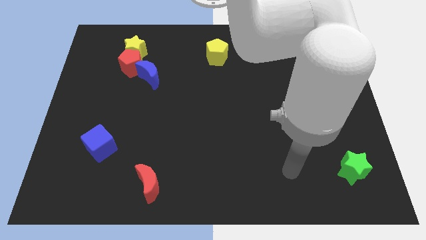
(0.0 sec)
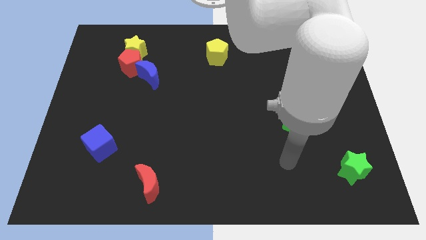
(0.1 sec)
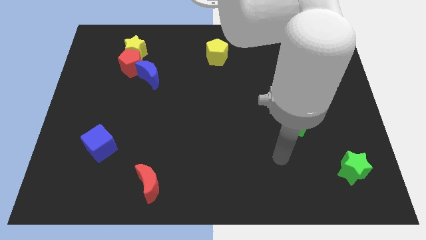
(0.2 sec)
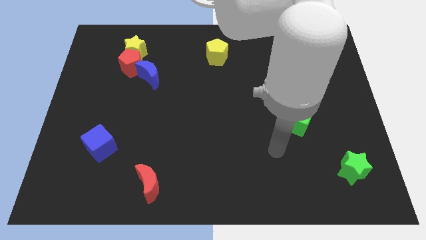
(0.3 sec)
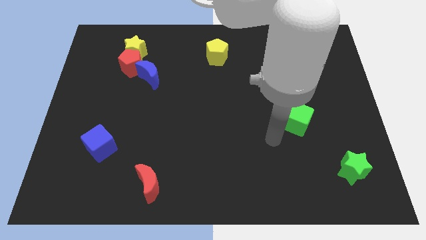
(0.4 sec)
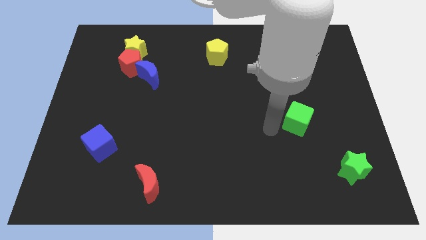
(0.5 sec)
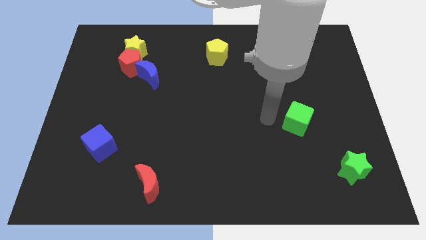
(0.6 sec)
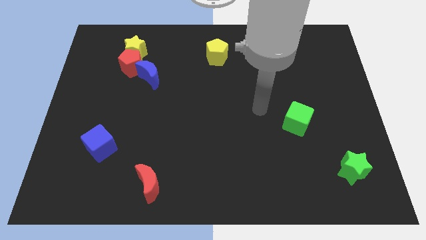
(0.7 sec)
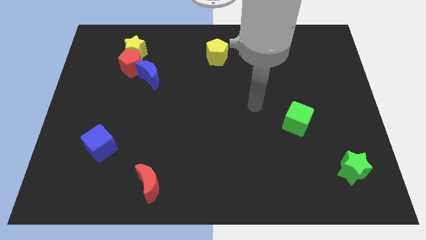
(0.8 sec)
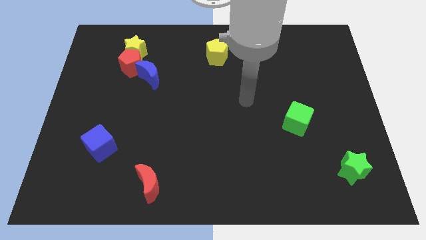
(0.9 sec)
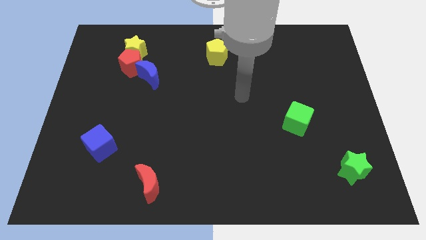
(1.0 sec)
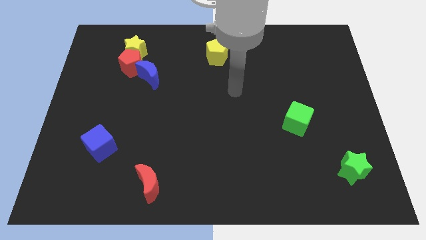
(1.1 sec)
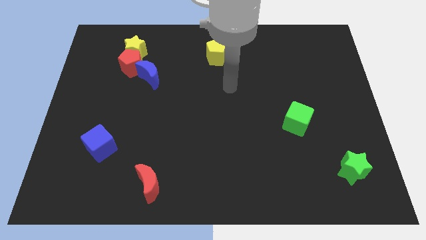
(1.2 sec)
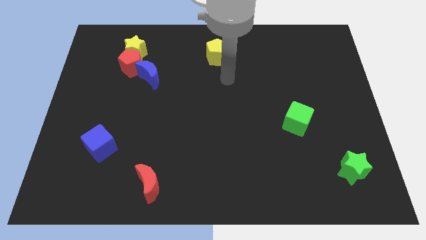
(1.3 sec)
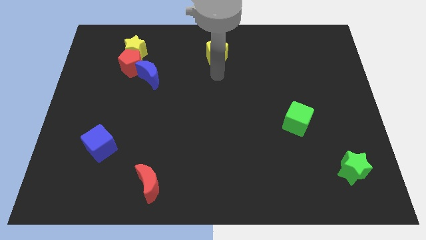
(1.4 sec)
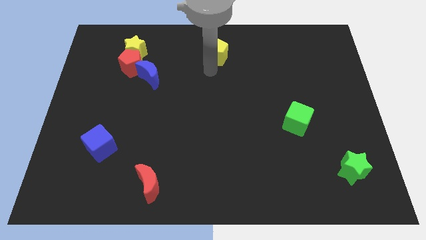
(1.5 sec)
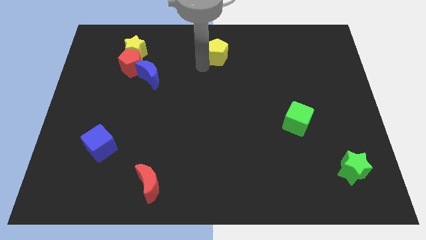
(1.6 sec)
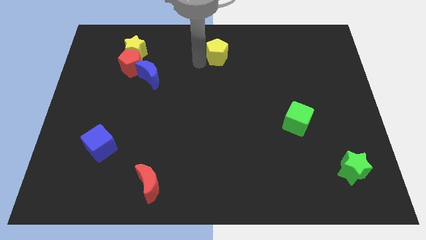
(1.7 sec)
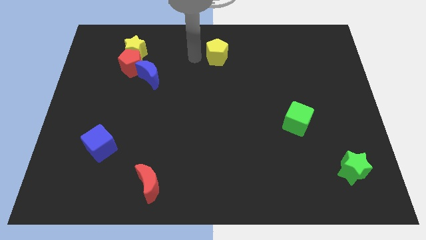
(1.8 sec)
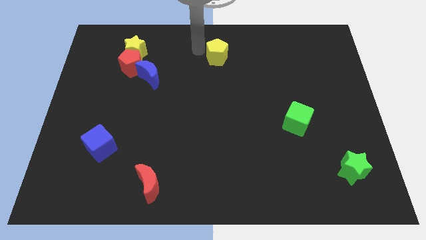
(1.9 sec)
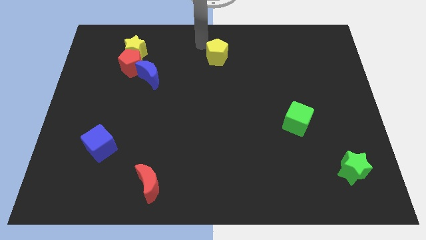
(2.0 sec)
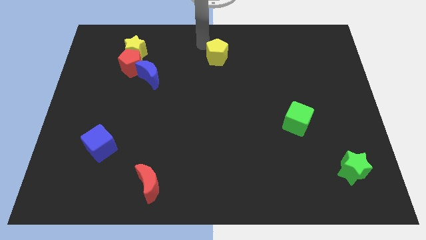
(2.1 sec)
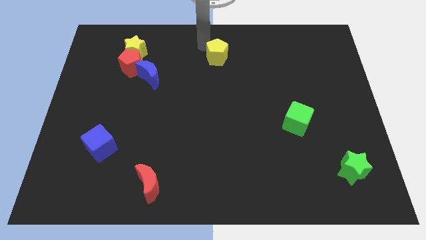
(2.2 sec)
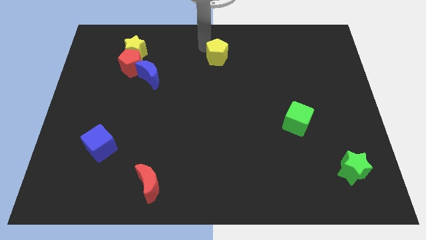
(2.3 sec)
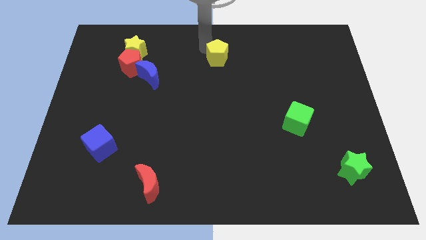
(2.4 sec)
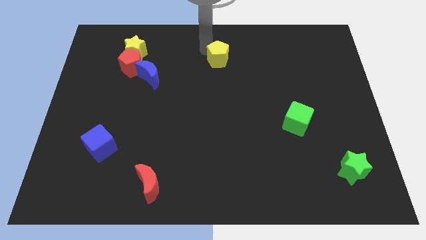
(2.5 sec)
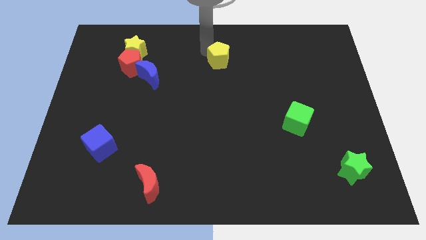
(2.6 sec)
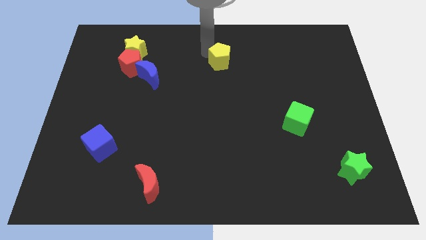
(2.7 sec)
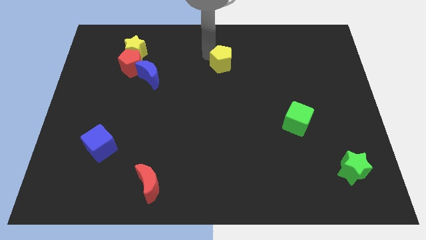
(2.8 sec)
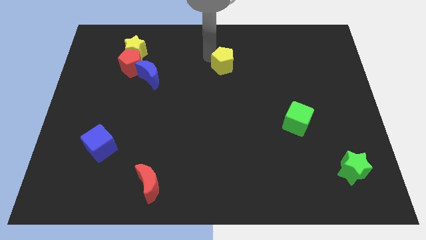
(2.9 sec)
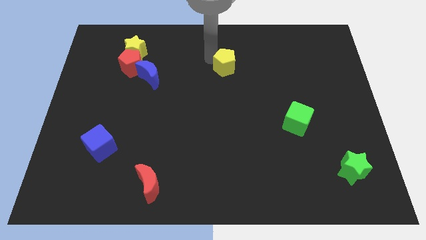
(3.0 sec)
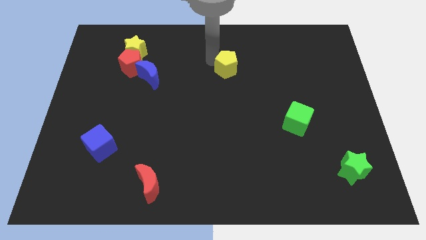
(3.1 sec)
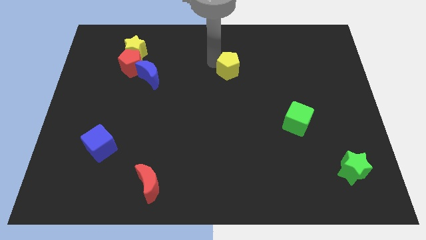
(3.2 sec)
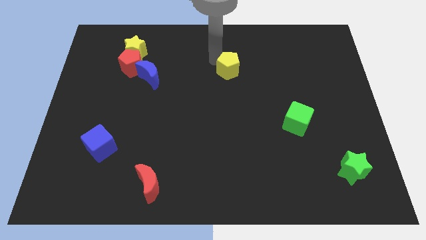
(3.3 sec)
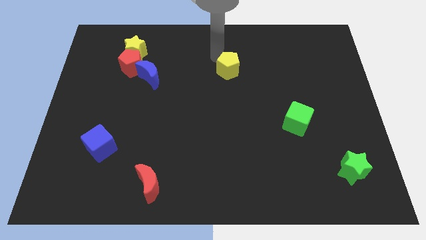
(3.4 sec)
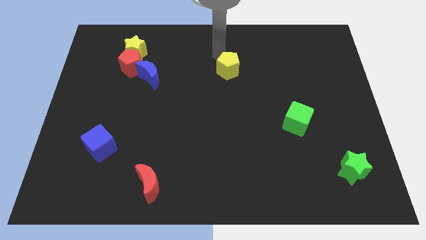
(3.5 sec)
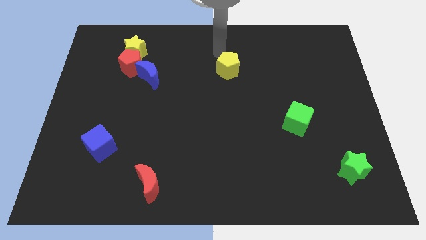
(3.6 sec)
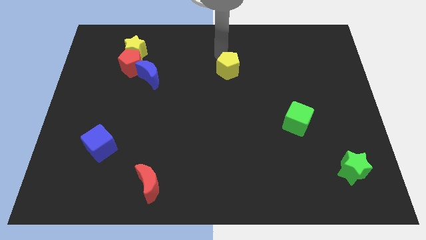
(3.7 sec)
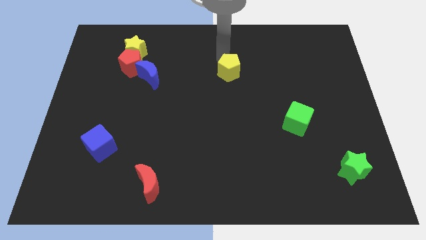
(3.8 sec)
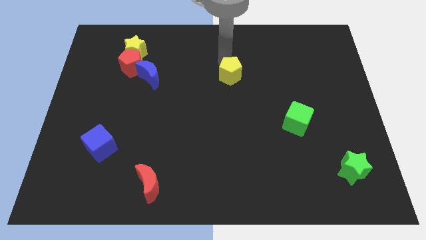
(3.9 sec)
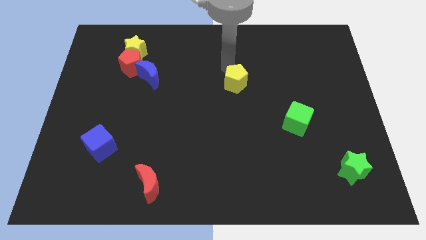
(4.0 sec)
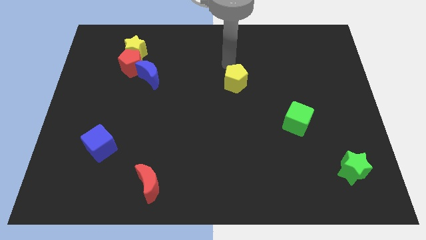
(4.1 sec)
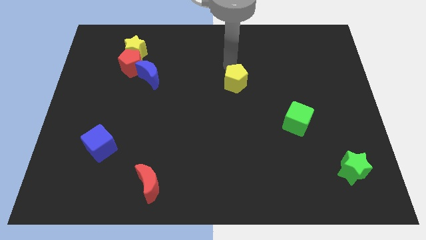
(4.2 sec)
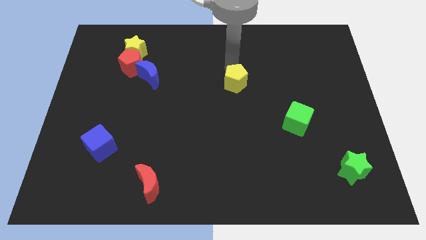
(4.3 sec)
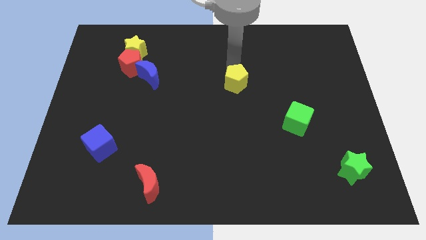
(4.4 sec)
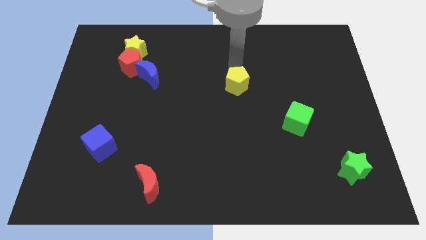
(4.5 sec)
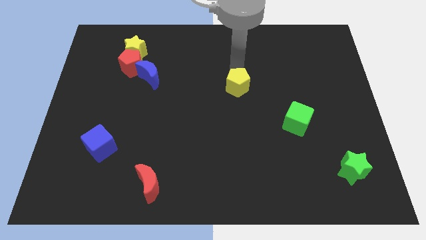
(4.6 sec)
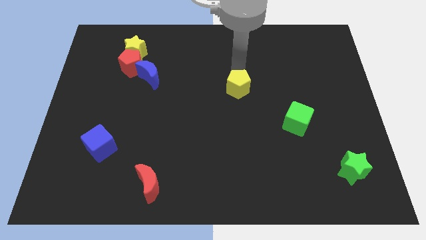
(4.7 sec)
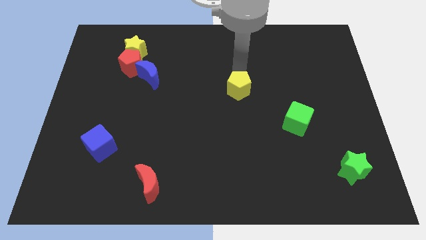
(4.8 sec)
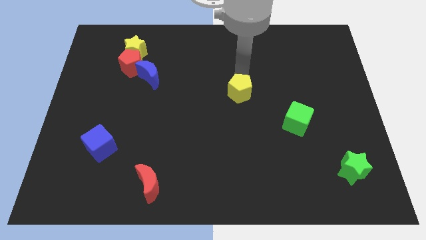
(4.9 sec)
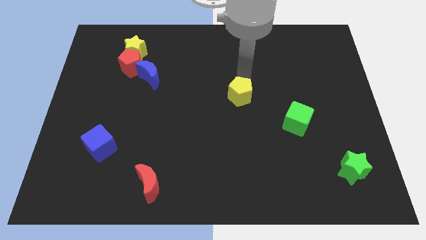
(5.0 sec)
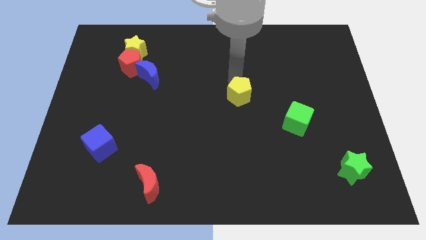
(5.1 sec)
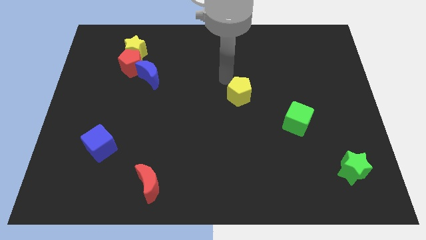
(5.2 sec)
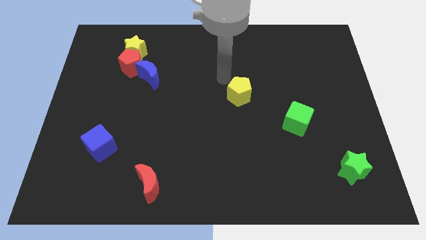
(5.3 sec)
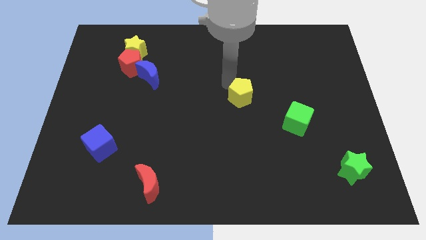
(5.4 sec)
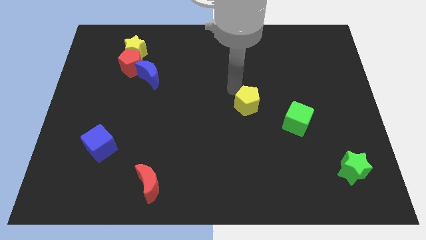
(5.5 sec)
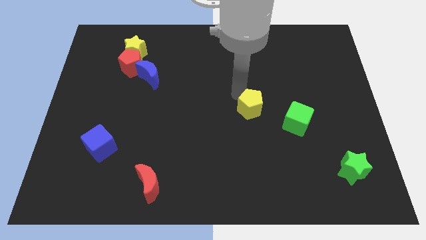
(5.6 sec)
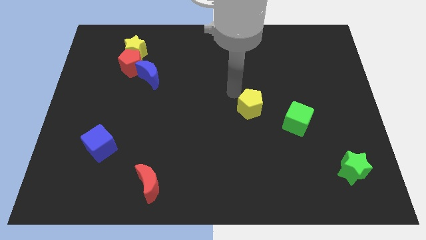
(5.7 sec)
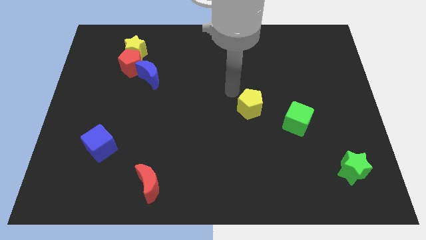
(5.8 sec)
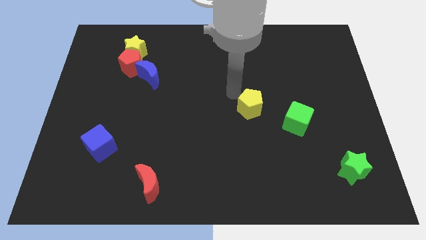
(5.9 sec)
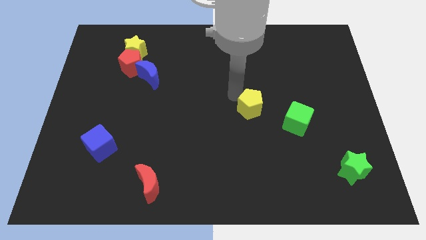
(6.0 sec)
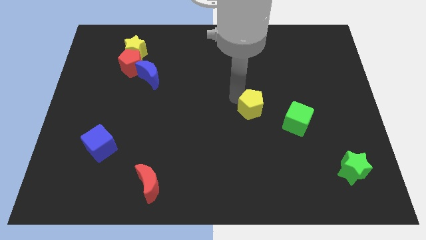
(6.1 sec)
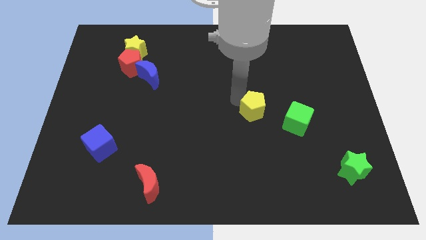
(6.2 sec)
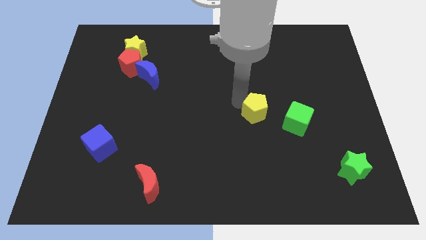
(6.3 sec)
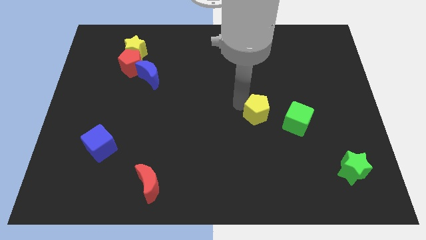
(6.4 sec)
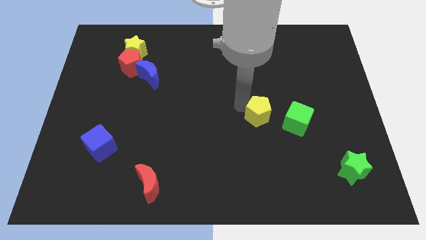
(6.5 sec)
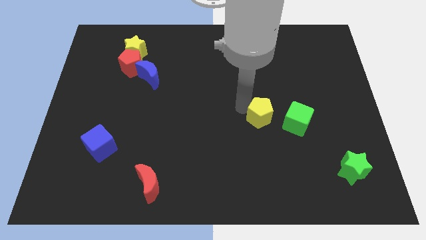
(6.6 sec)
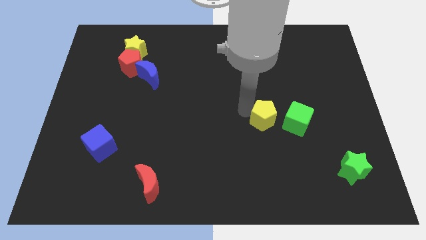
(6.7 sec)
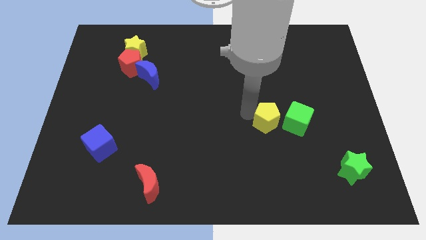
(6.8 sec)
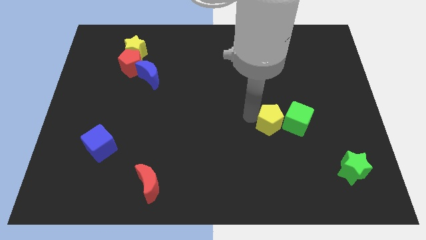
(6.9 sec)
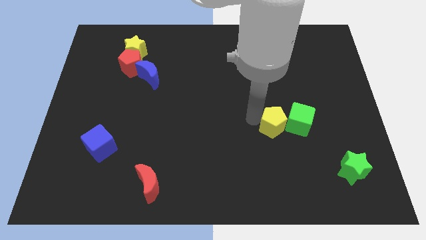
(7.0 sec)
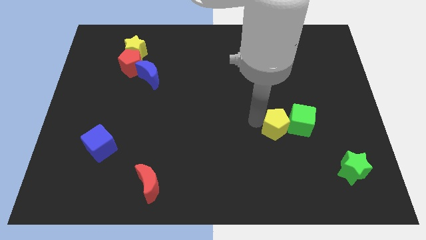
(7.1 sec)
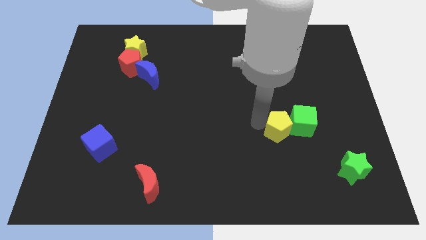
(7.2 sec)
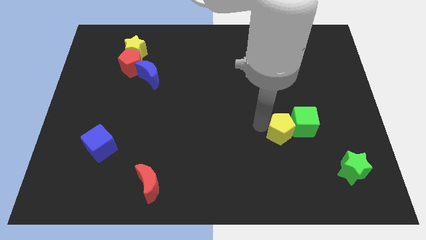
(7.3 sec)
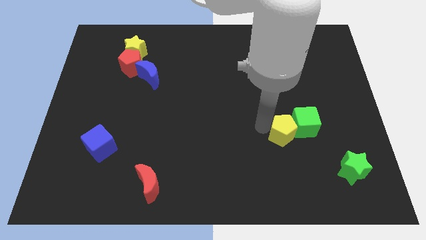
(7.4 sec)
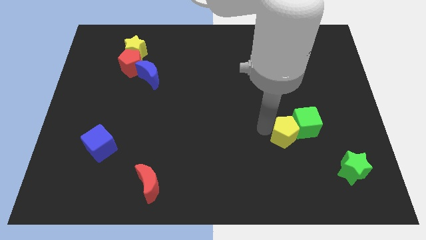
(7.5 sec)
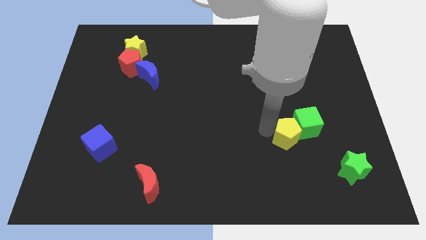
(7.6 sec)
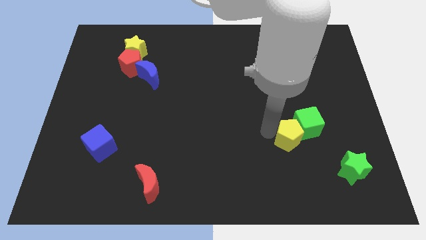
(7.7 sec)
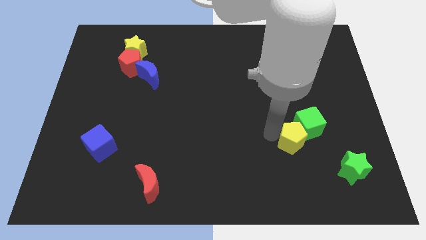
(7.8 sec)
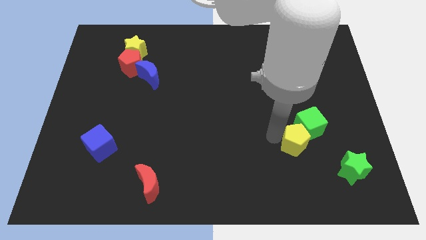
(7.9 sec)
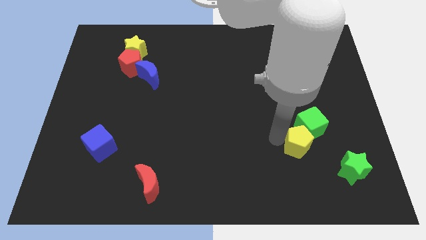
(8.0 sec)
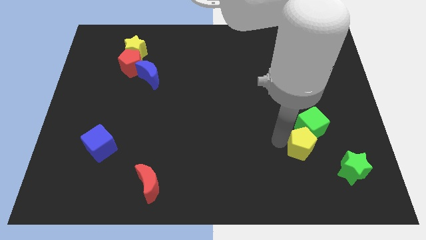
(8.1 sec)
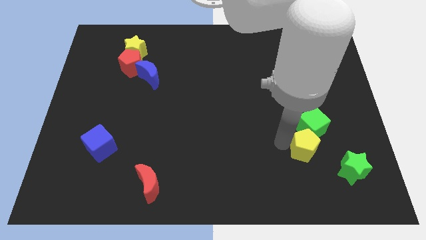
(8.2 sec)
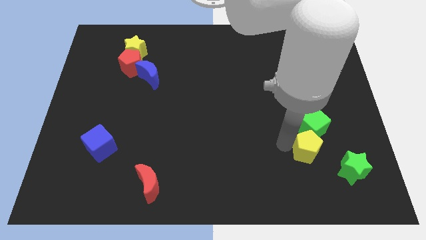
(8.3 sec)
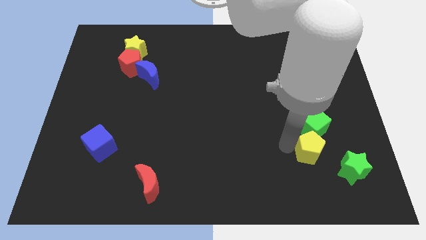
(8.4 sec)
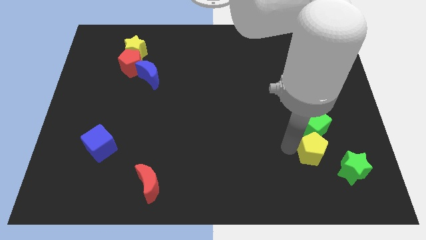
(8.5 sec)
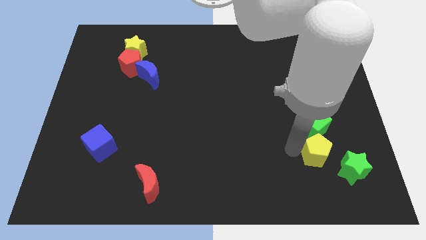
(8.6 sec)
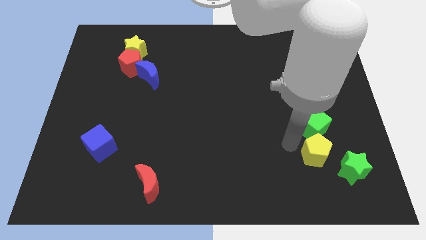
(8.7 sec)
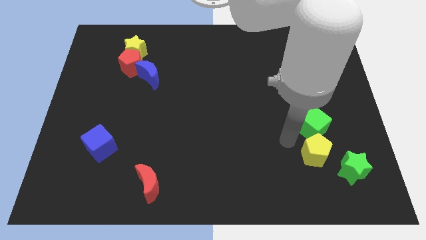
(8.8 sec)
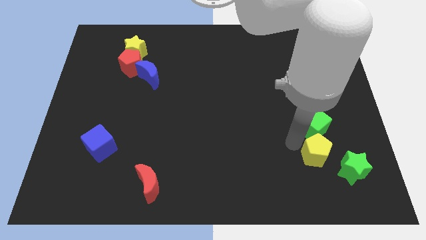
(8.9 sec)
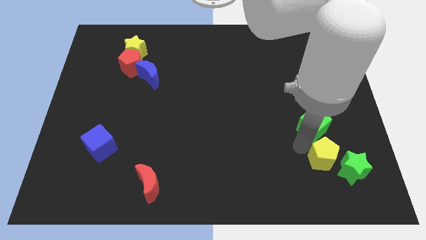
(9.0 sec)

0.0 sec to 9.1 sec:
move the yellow pentagon towards the green star
